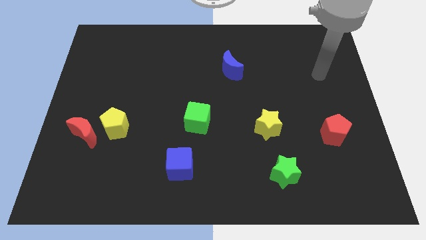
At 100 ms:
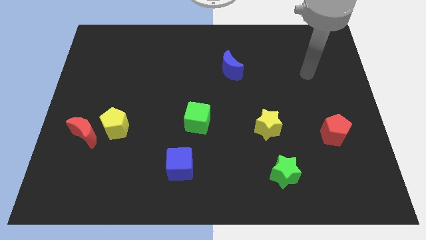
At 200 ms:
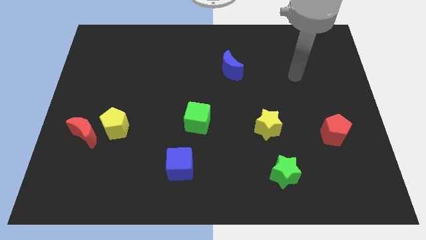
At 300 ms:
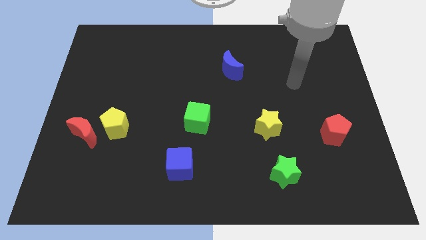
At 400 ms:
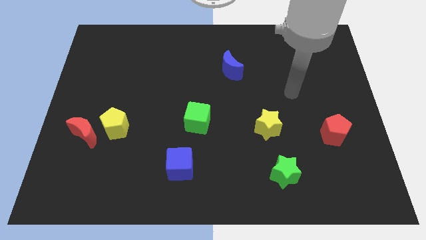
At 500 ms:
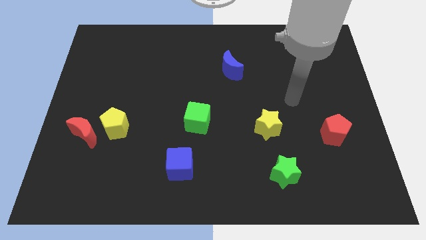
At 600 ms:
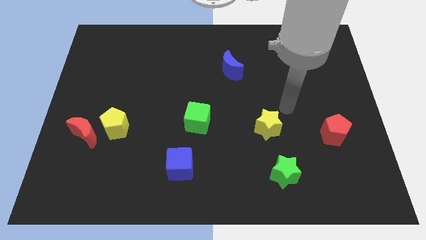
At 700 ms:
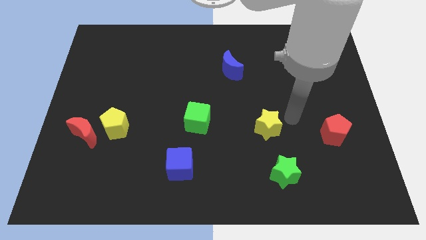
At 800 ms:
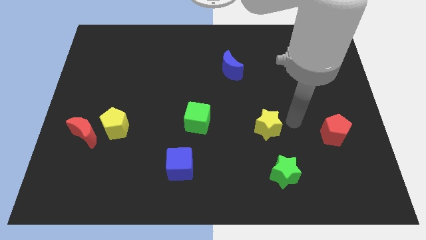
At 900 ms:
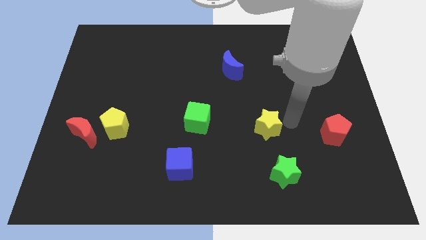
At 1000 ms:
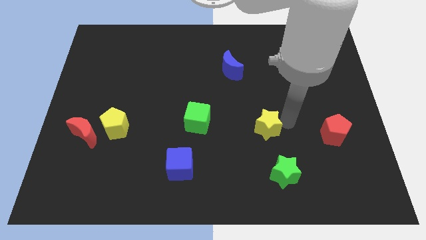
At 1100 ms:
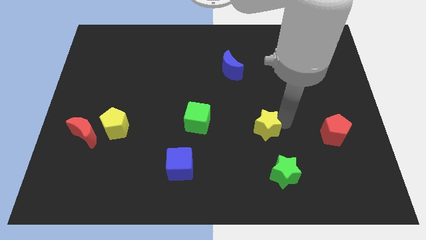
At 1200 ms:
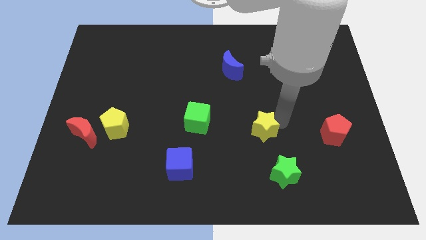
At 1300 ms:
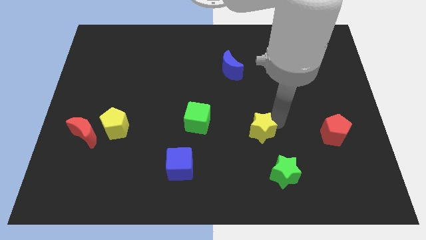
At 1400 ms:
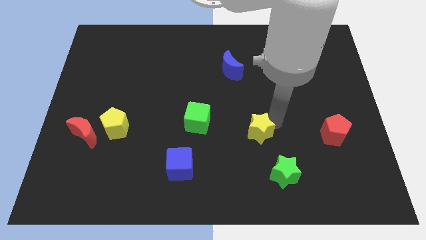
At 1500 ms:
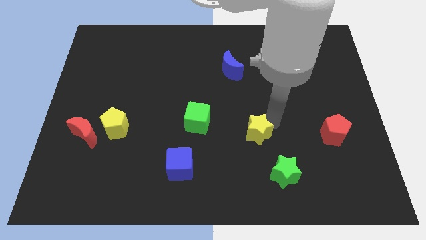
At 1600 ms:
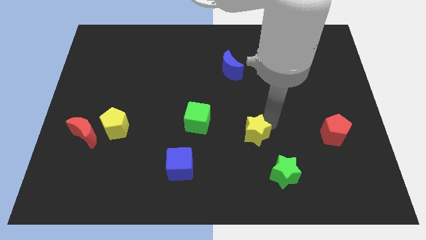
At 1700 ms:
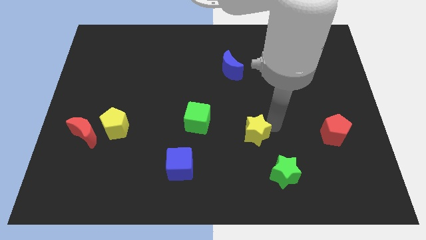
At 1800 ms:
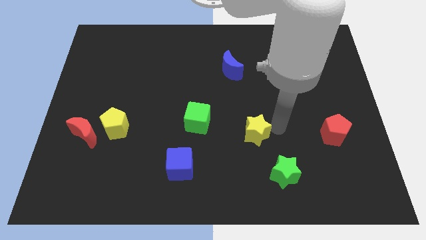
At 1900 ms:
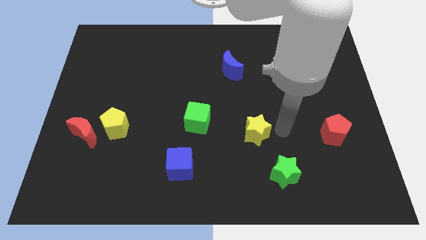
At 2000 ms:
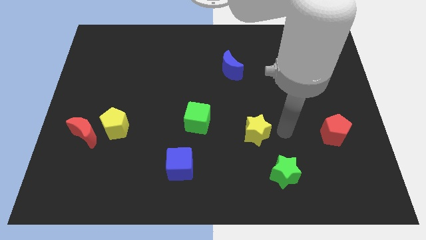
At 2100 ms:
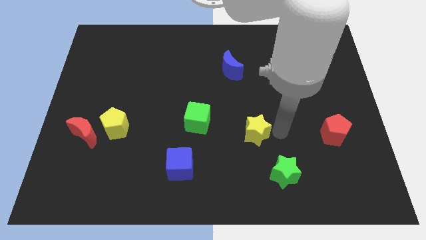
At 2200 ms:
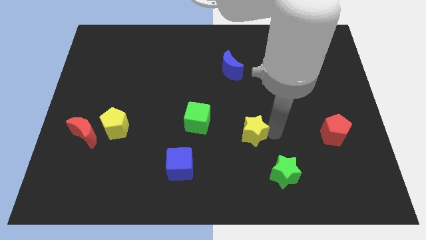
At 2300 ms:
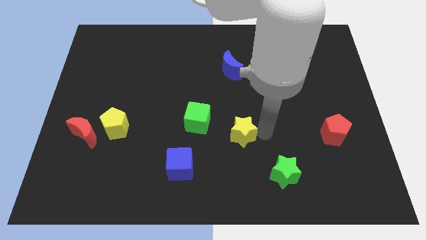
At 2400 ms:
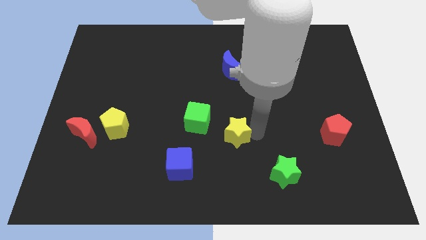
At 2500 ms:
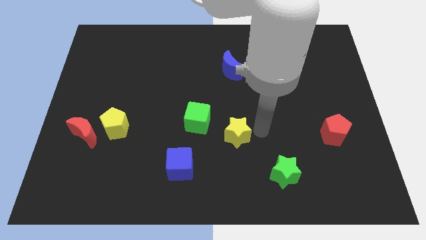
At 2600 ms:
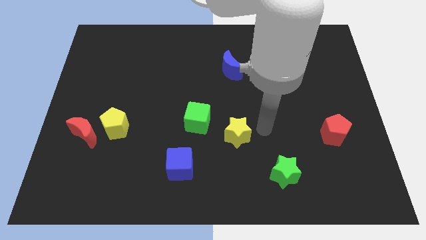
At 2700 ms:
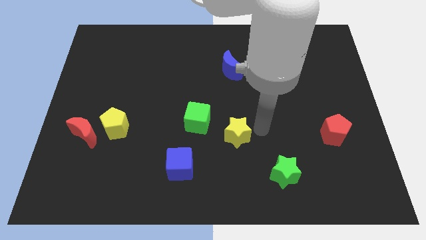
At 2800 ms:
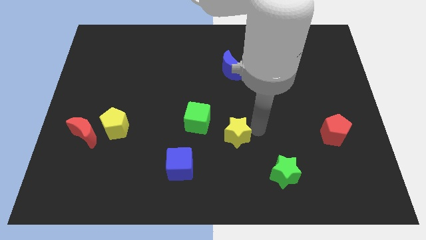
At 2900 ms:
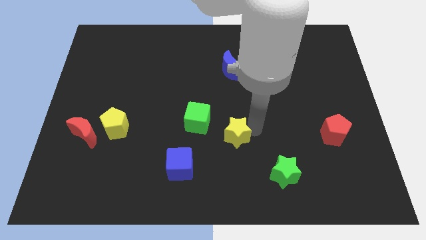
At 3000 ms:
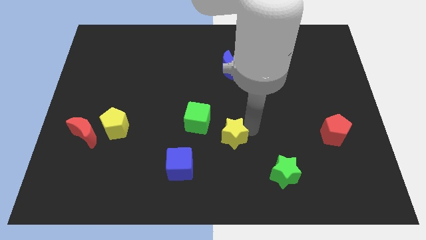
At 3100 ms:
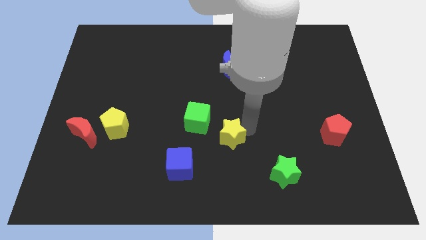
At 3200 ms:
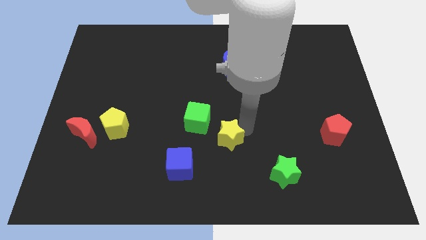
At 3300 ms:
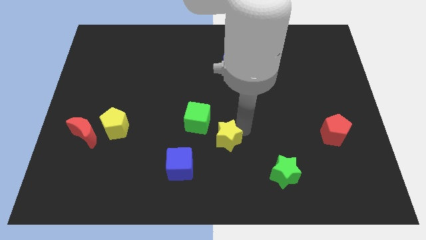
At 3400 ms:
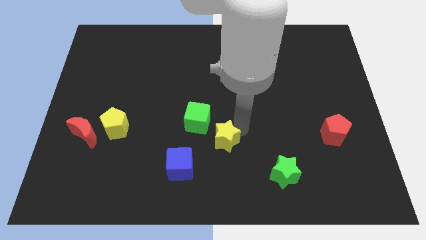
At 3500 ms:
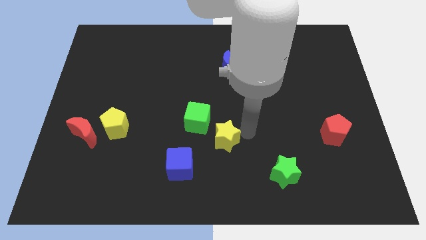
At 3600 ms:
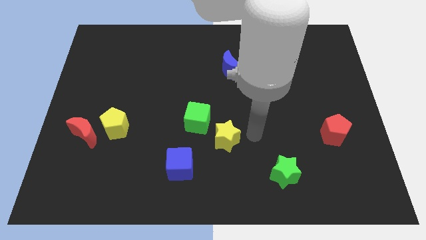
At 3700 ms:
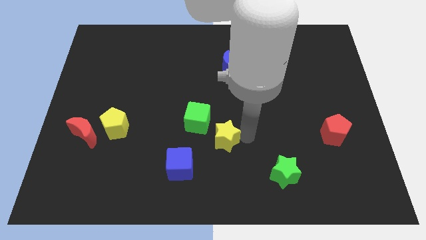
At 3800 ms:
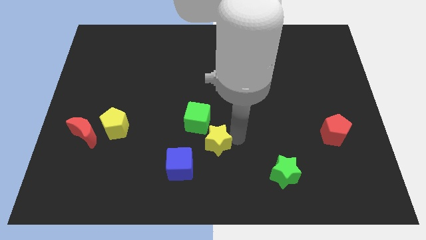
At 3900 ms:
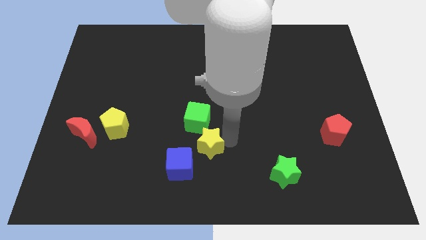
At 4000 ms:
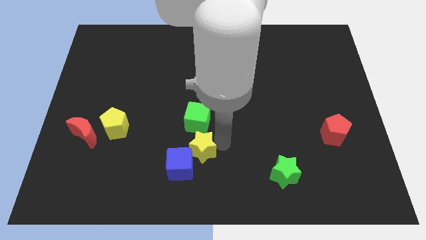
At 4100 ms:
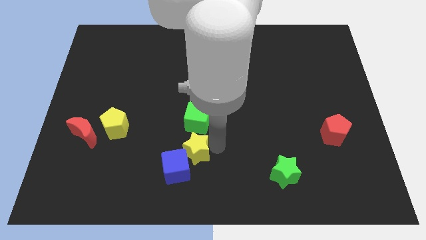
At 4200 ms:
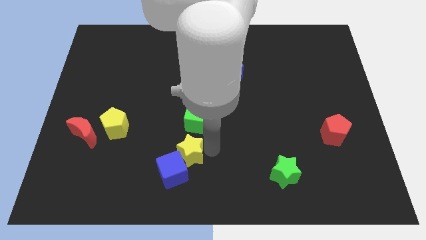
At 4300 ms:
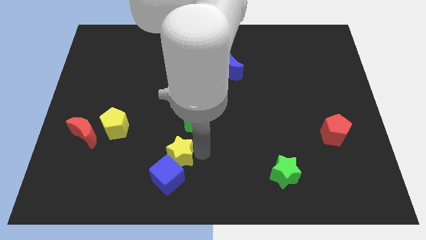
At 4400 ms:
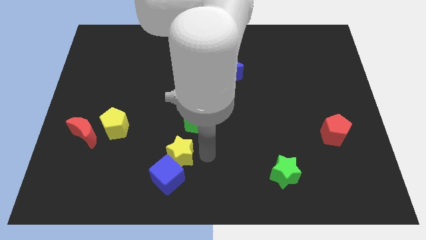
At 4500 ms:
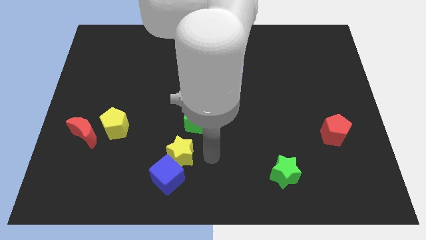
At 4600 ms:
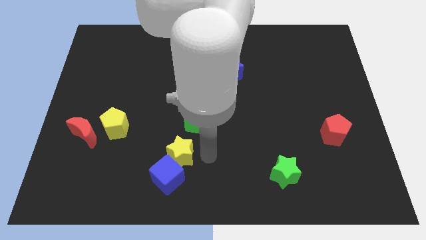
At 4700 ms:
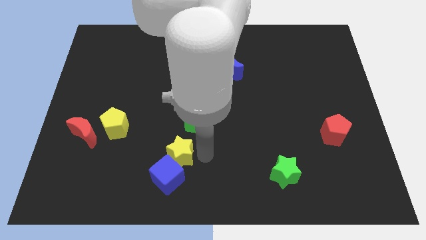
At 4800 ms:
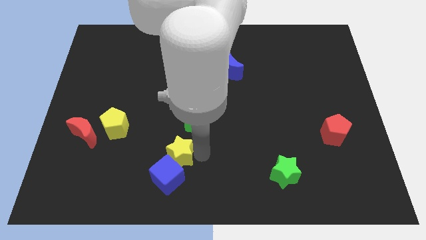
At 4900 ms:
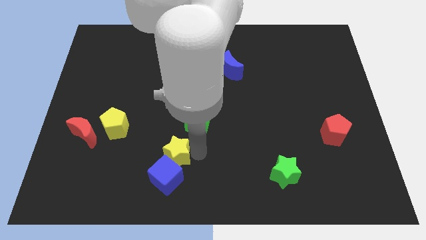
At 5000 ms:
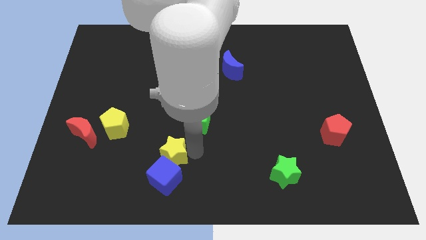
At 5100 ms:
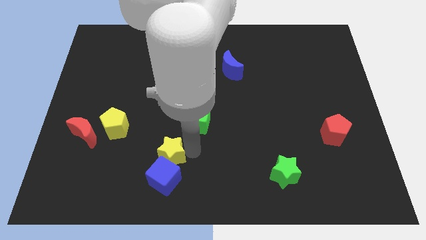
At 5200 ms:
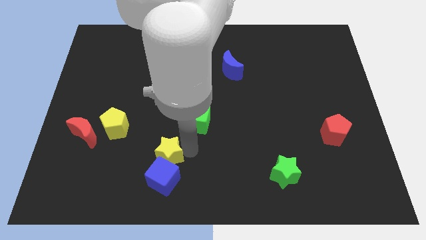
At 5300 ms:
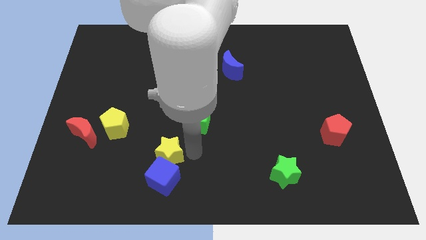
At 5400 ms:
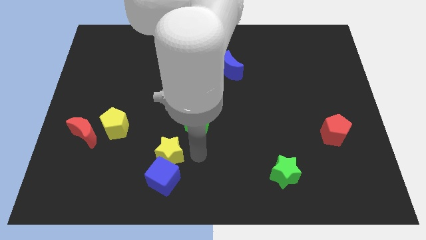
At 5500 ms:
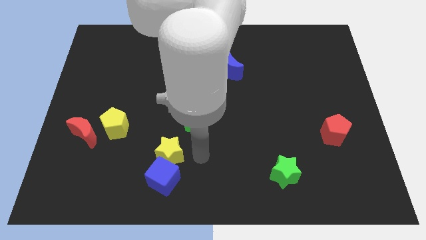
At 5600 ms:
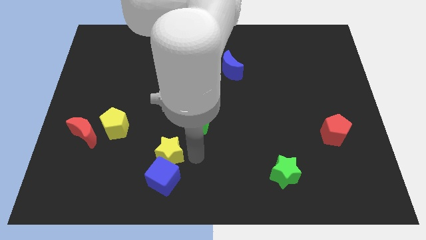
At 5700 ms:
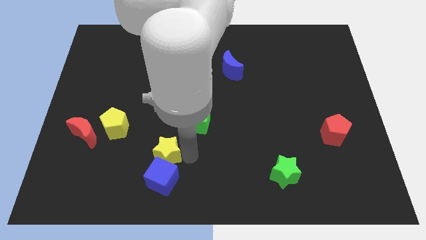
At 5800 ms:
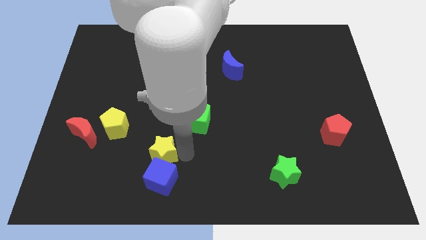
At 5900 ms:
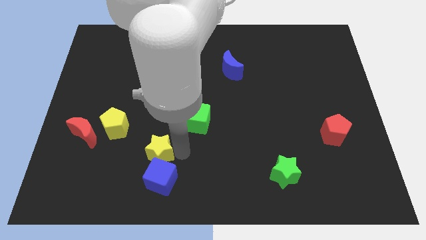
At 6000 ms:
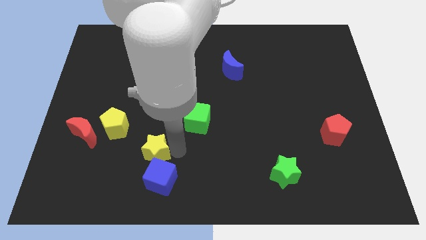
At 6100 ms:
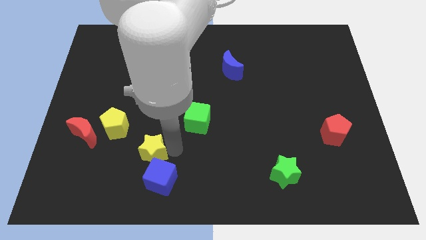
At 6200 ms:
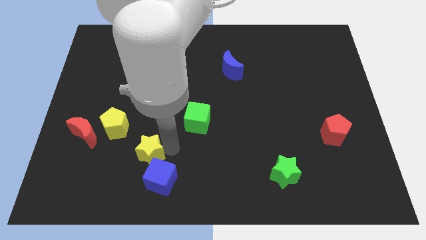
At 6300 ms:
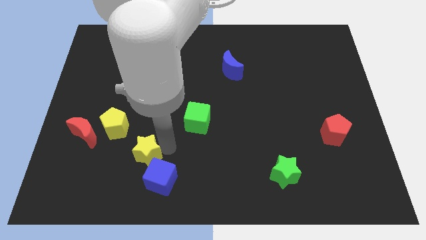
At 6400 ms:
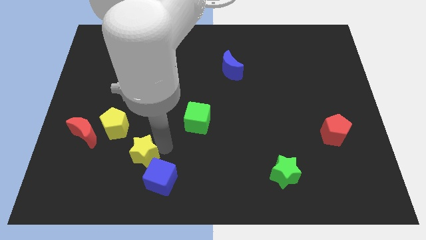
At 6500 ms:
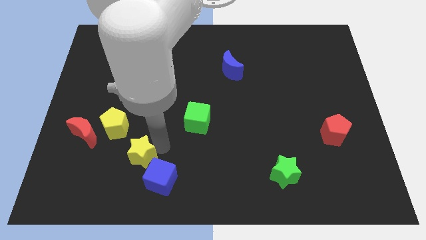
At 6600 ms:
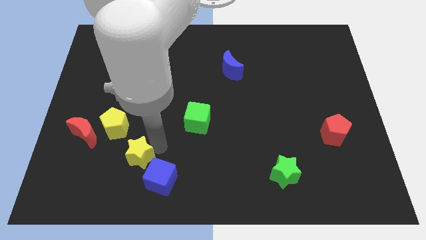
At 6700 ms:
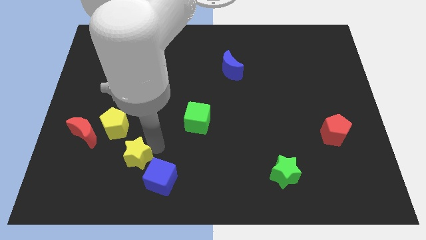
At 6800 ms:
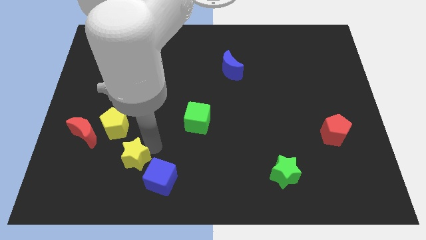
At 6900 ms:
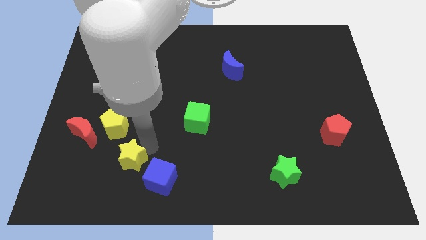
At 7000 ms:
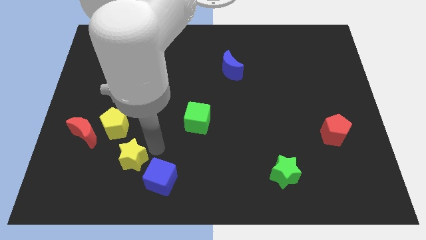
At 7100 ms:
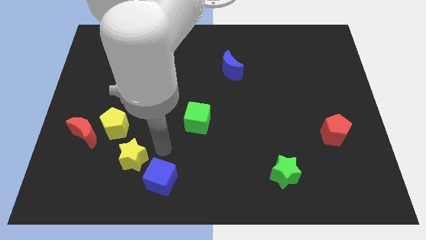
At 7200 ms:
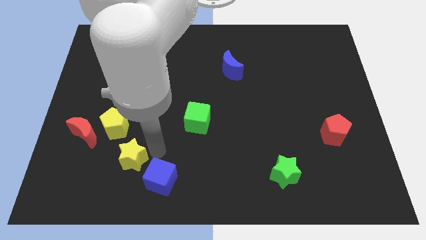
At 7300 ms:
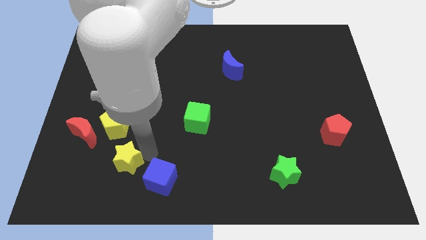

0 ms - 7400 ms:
push the yellow star to the bottom of the yellow pentagon

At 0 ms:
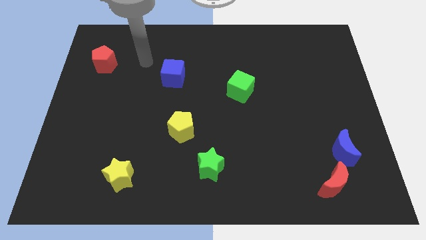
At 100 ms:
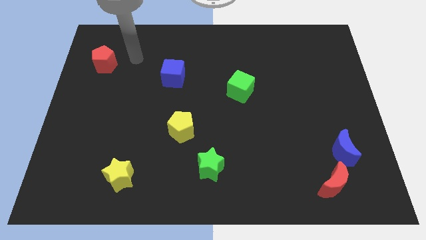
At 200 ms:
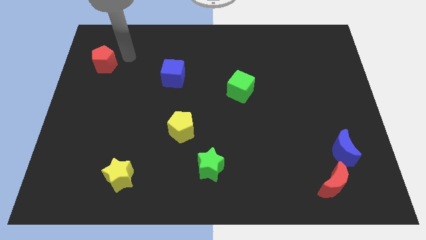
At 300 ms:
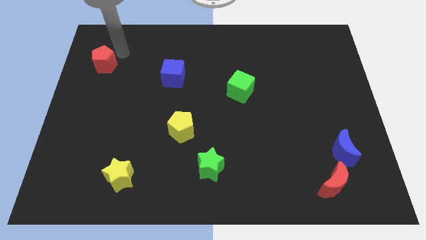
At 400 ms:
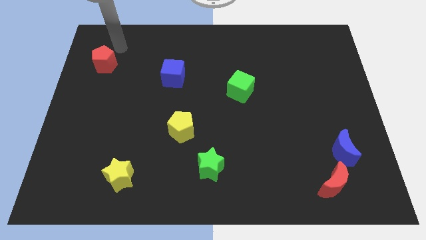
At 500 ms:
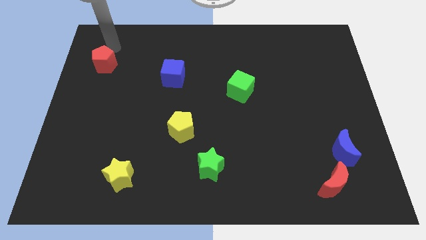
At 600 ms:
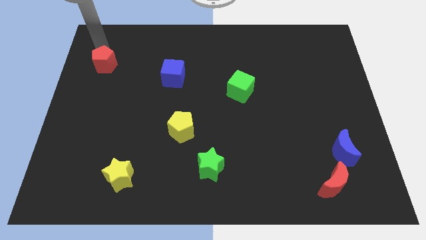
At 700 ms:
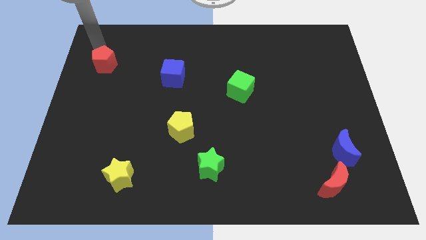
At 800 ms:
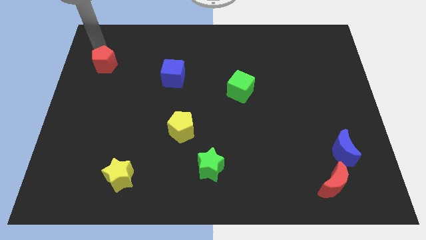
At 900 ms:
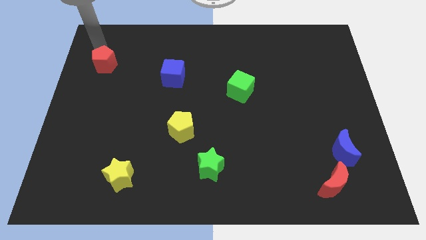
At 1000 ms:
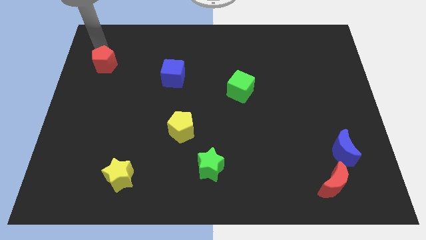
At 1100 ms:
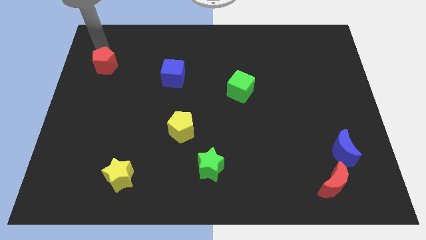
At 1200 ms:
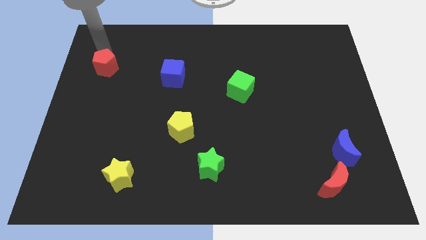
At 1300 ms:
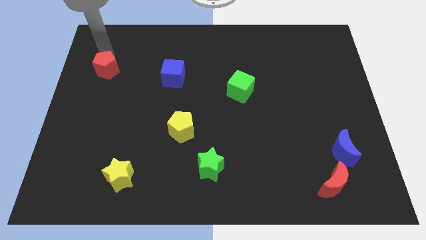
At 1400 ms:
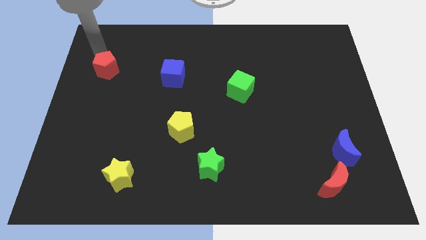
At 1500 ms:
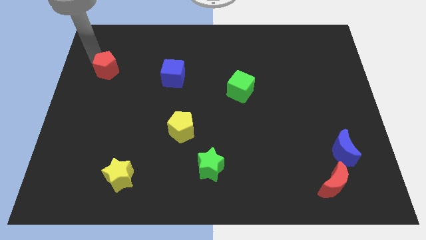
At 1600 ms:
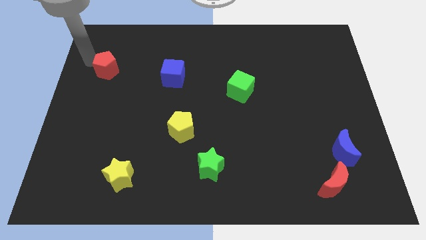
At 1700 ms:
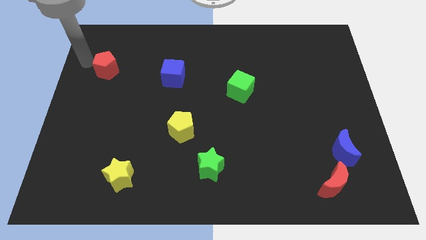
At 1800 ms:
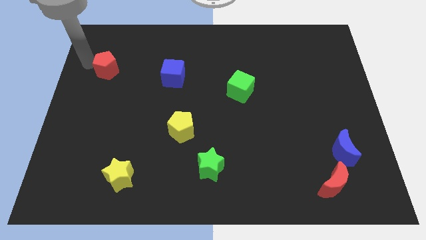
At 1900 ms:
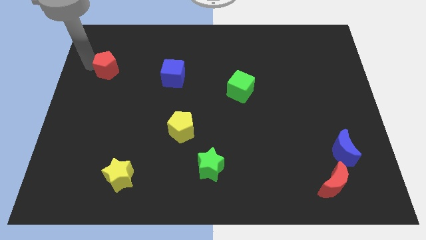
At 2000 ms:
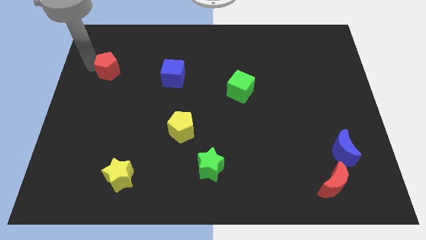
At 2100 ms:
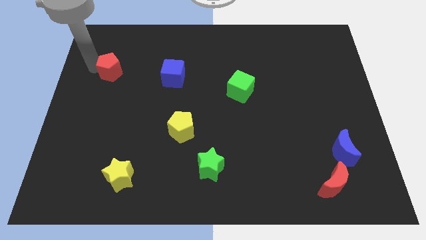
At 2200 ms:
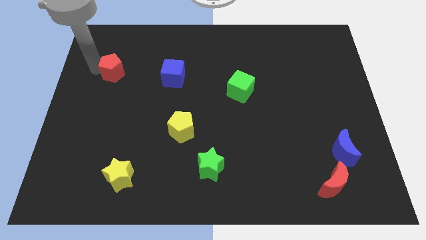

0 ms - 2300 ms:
move the red pentagon to the left of the blue cube
